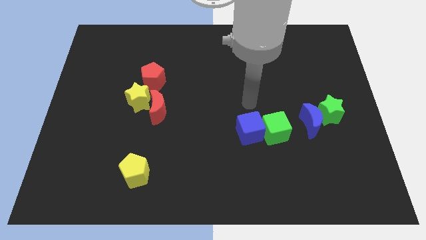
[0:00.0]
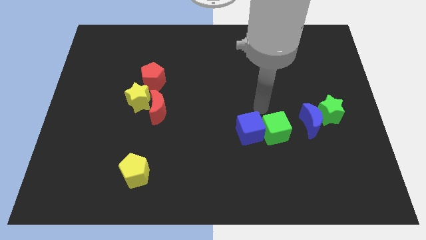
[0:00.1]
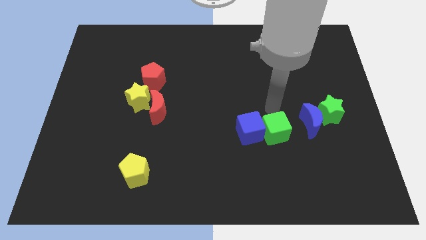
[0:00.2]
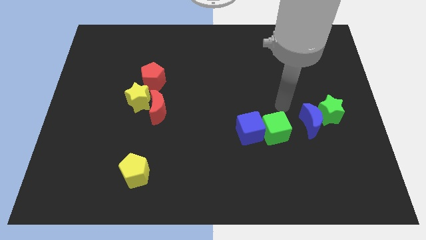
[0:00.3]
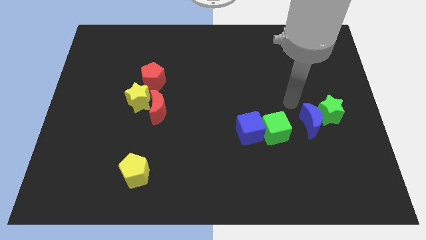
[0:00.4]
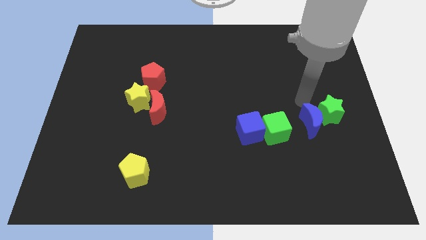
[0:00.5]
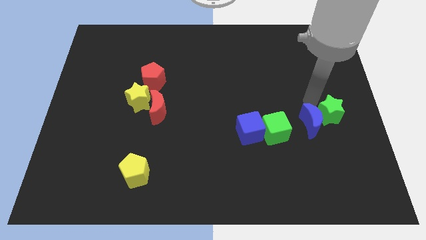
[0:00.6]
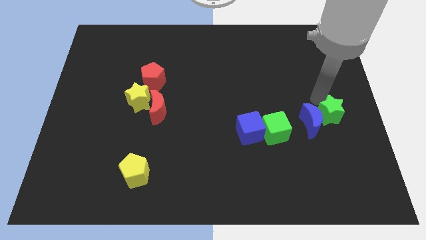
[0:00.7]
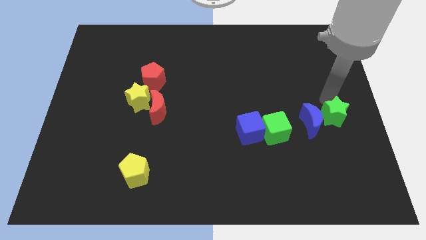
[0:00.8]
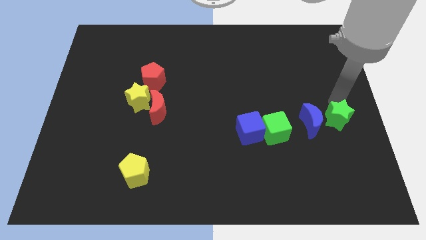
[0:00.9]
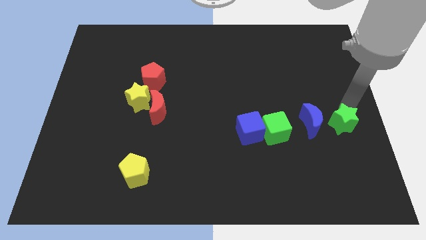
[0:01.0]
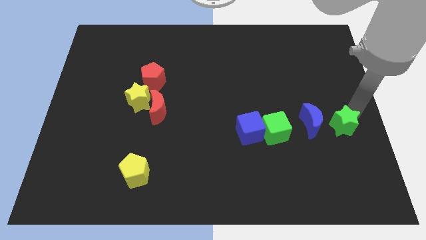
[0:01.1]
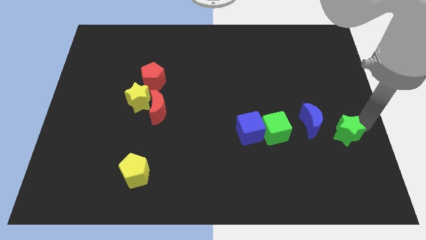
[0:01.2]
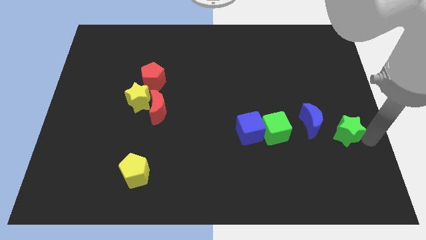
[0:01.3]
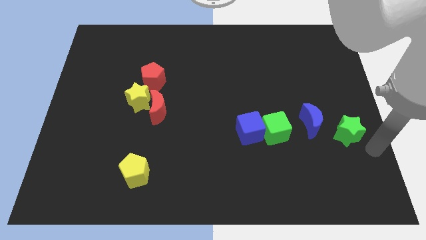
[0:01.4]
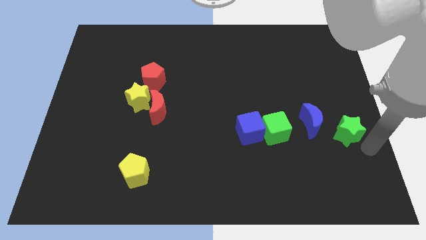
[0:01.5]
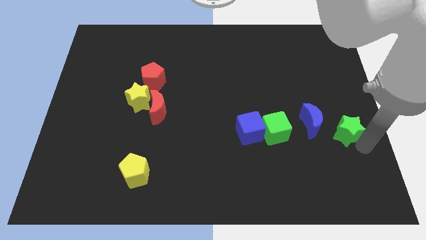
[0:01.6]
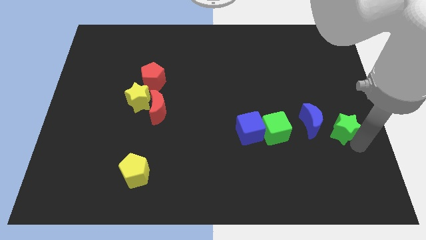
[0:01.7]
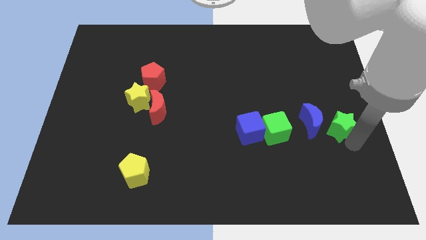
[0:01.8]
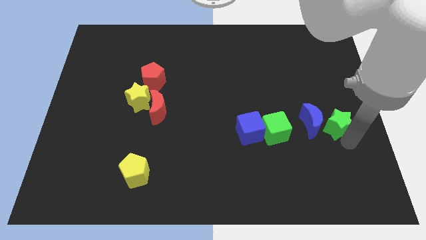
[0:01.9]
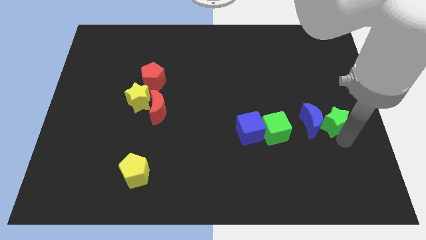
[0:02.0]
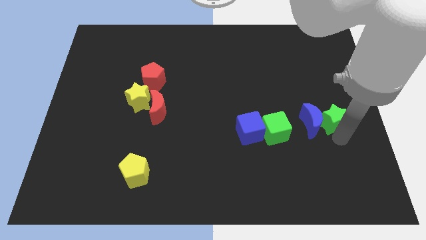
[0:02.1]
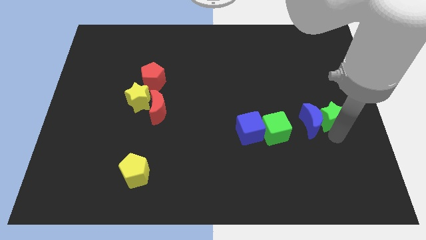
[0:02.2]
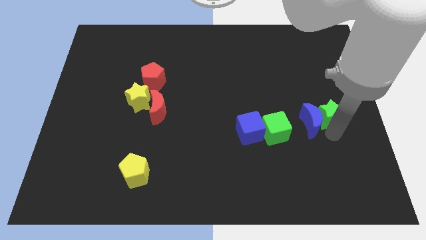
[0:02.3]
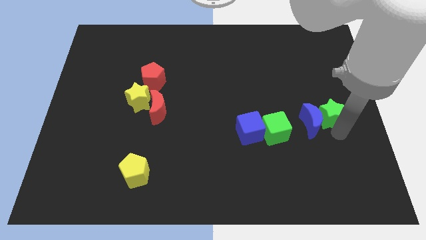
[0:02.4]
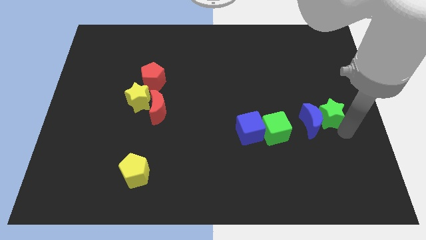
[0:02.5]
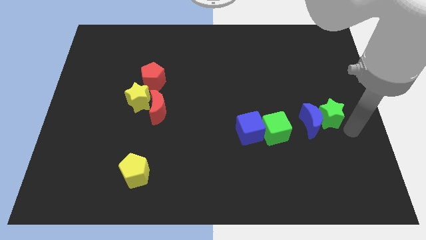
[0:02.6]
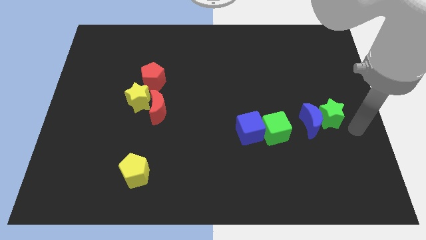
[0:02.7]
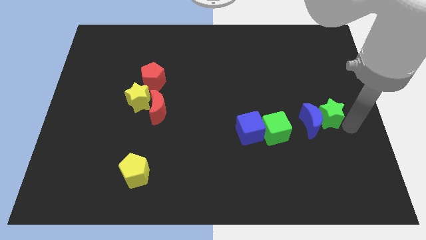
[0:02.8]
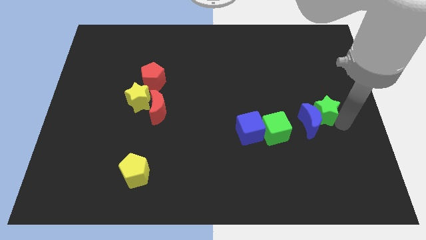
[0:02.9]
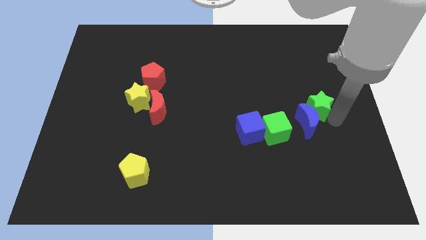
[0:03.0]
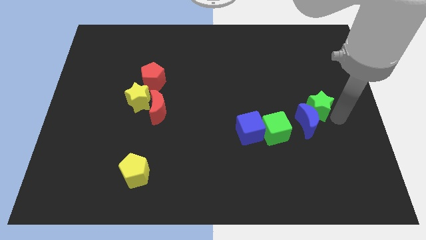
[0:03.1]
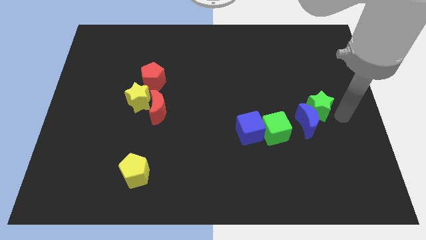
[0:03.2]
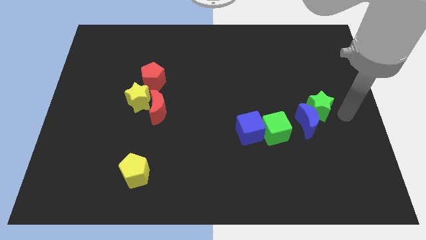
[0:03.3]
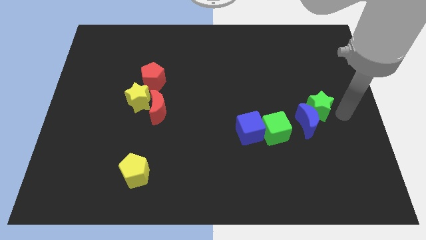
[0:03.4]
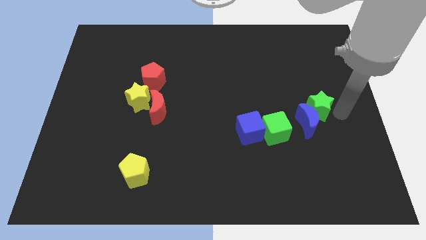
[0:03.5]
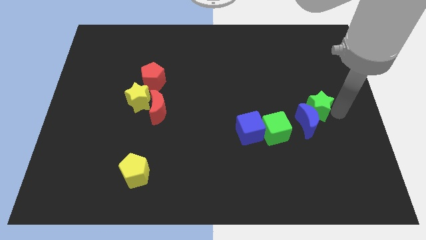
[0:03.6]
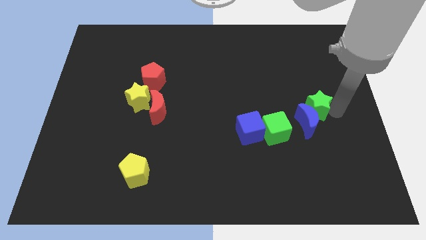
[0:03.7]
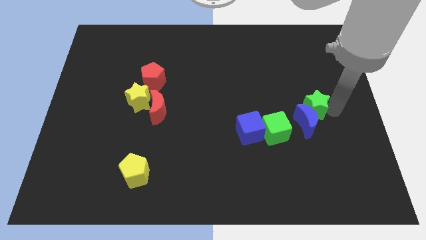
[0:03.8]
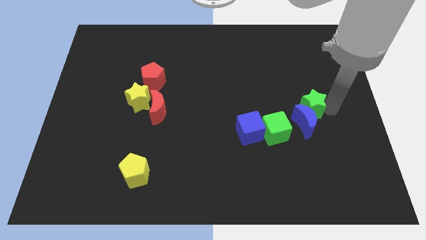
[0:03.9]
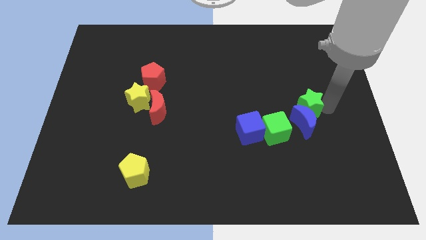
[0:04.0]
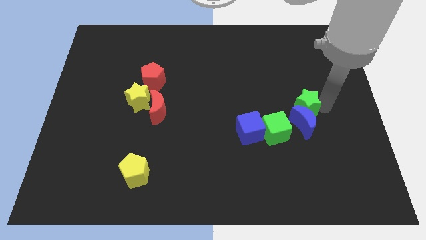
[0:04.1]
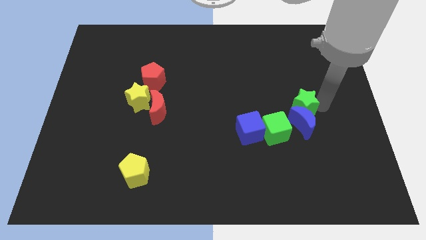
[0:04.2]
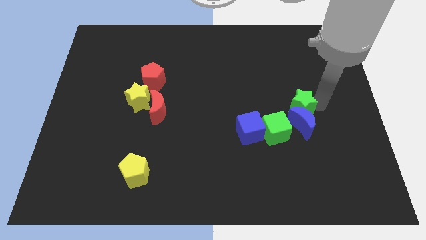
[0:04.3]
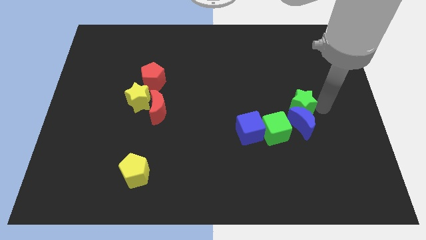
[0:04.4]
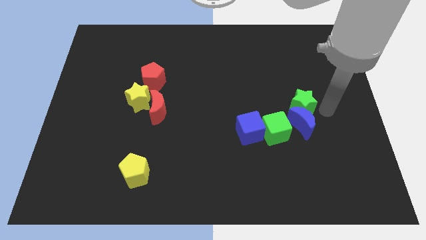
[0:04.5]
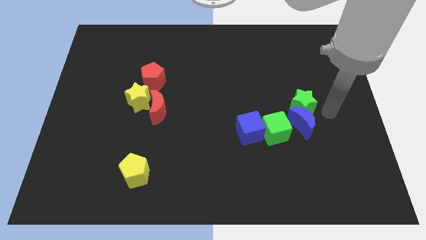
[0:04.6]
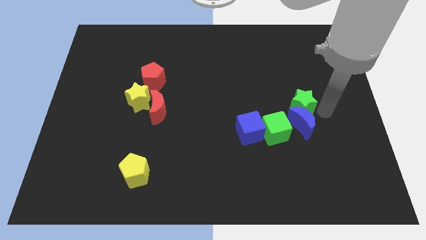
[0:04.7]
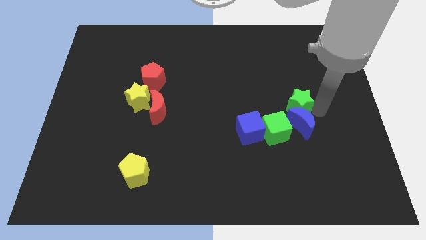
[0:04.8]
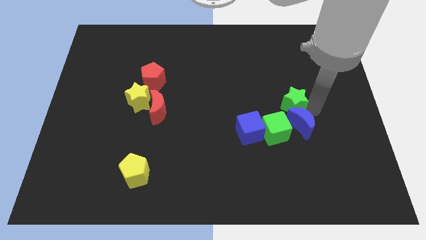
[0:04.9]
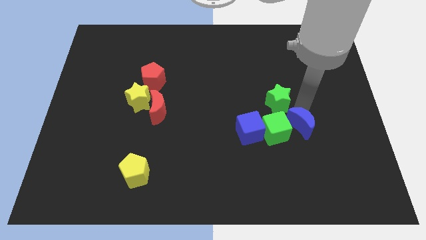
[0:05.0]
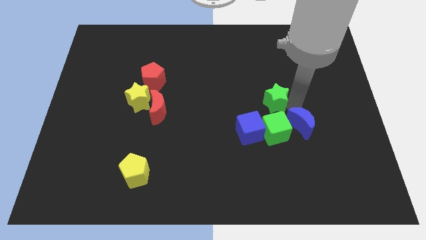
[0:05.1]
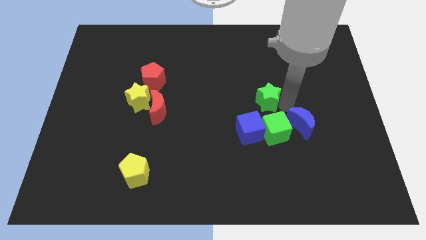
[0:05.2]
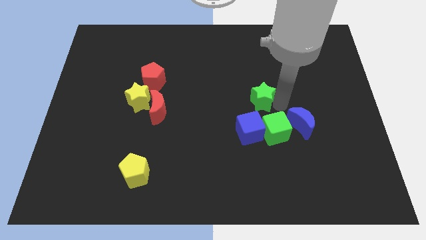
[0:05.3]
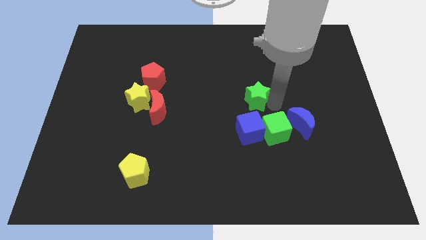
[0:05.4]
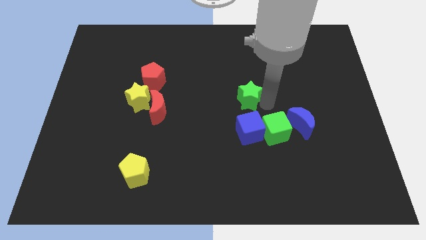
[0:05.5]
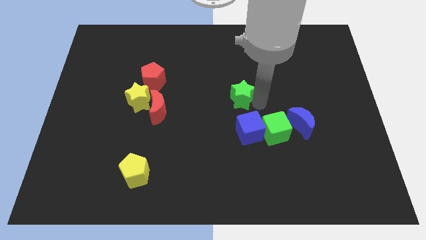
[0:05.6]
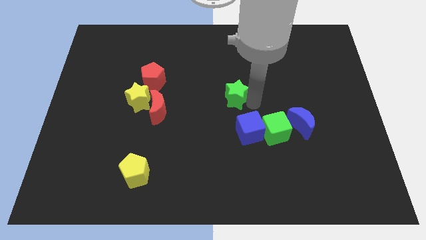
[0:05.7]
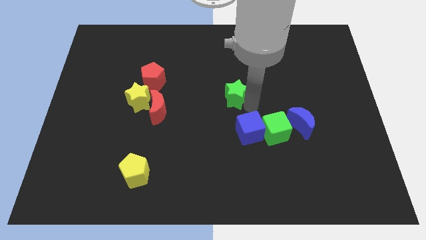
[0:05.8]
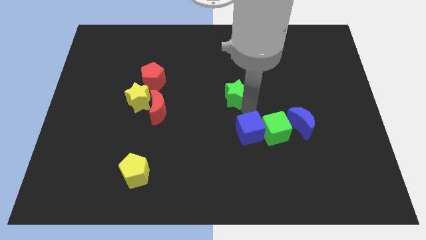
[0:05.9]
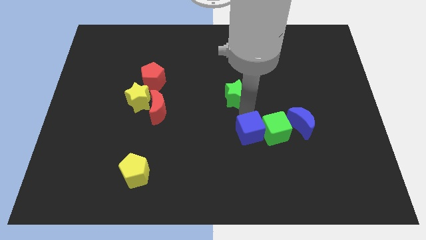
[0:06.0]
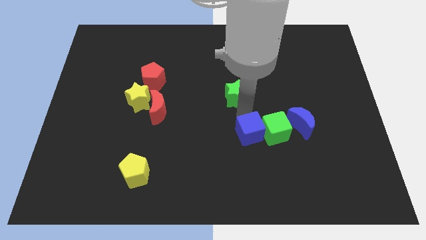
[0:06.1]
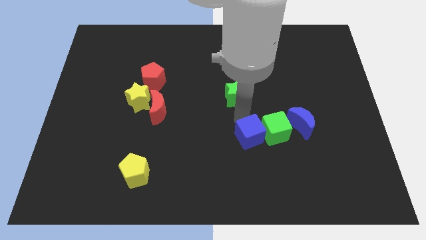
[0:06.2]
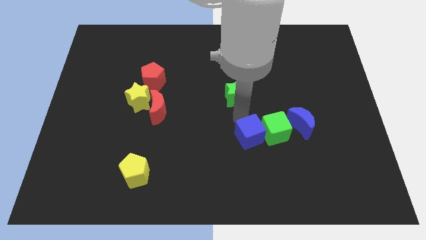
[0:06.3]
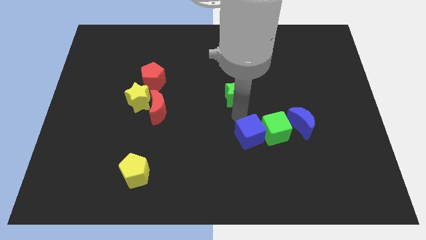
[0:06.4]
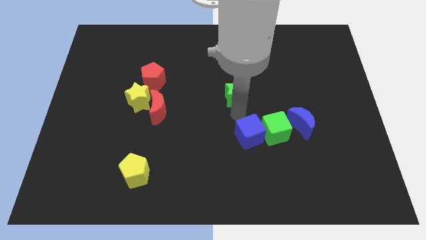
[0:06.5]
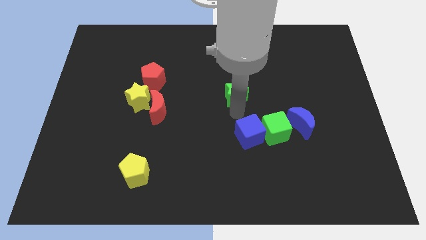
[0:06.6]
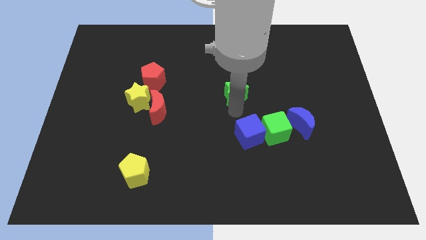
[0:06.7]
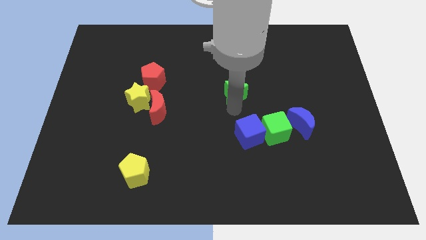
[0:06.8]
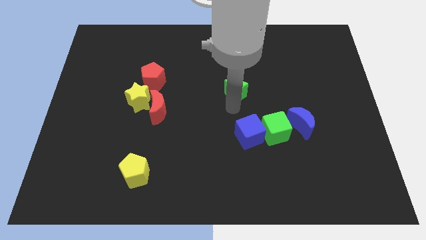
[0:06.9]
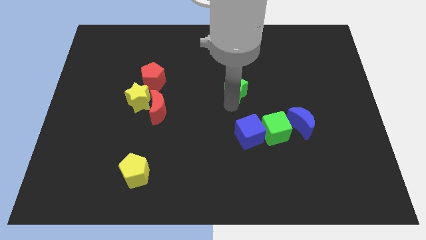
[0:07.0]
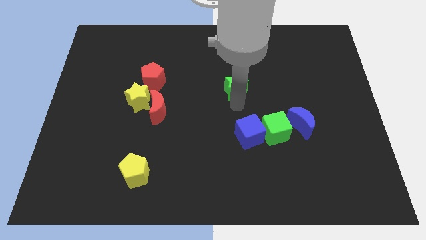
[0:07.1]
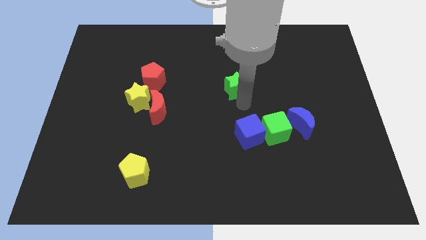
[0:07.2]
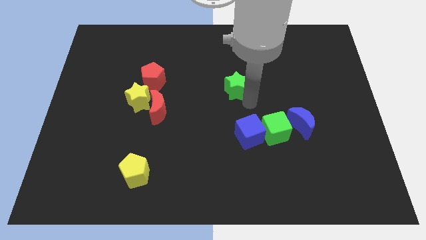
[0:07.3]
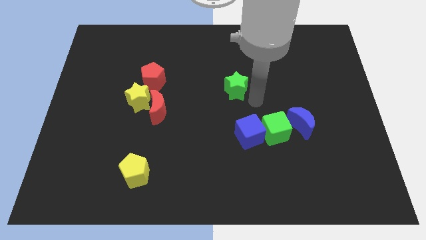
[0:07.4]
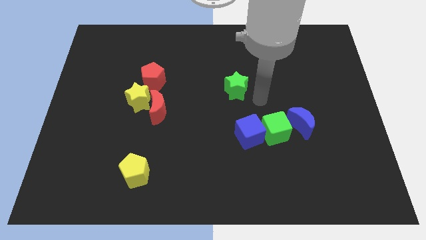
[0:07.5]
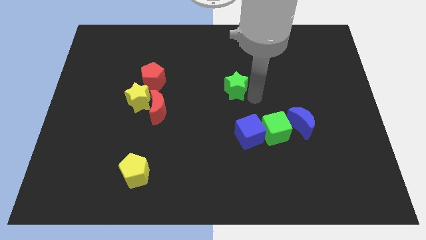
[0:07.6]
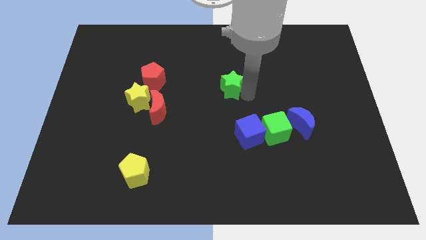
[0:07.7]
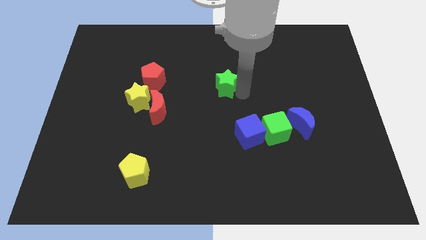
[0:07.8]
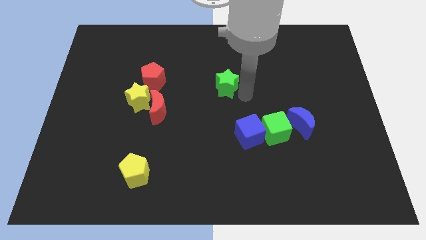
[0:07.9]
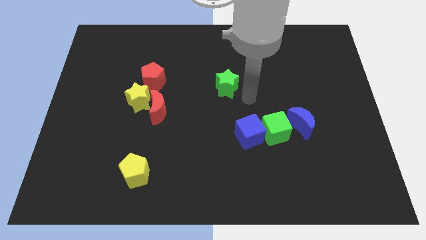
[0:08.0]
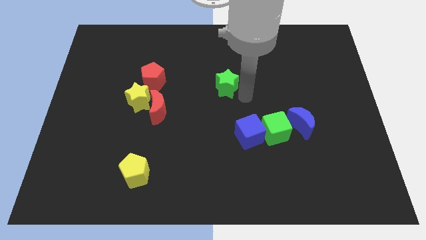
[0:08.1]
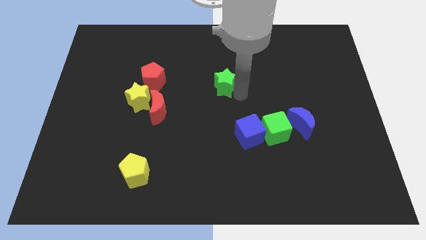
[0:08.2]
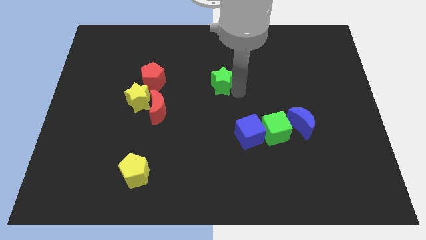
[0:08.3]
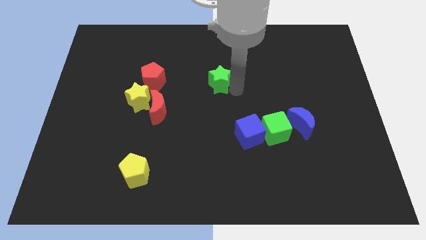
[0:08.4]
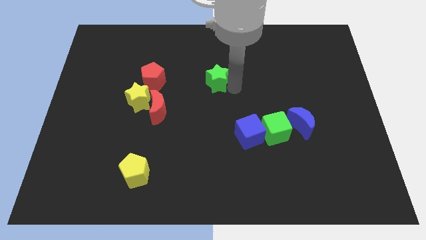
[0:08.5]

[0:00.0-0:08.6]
slide the green star right of the red pentagon
